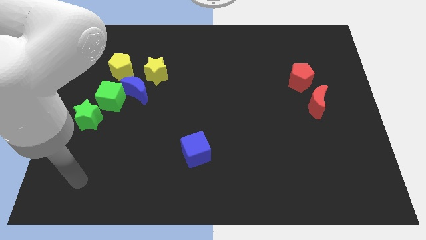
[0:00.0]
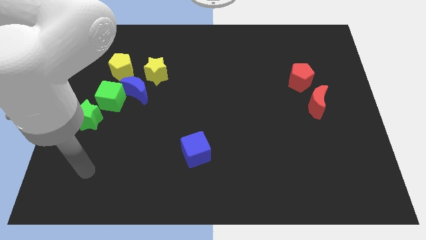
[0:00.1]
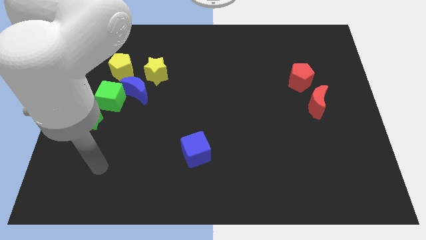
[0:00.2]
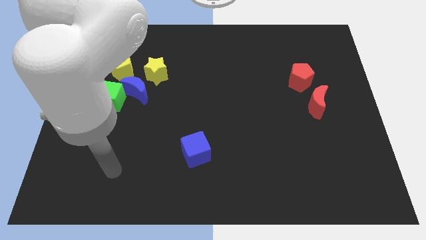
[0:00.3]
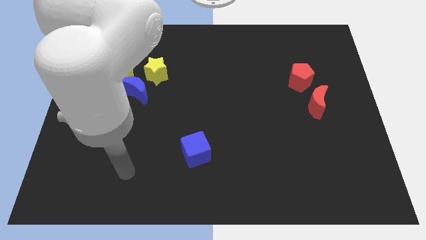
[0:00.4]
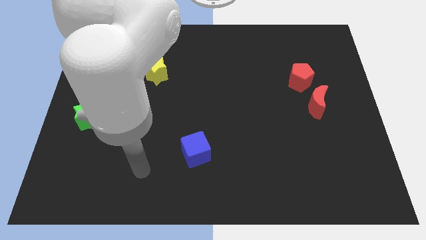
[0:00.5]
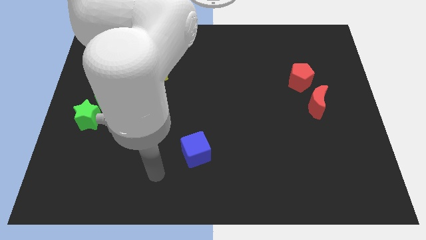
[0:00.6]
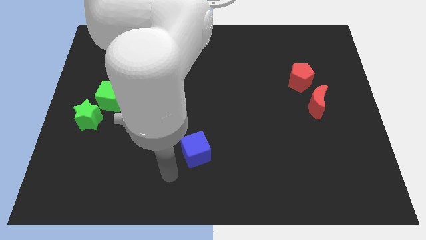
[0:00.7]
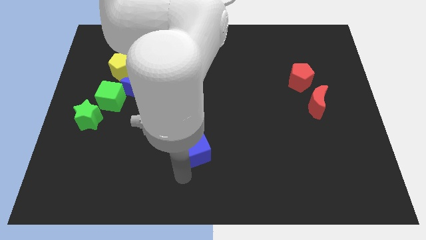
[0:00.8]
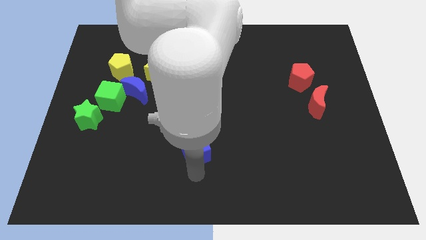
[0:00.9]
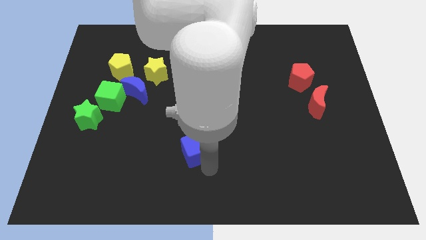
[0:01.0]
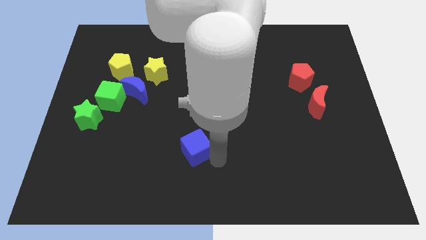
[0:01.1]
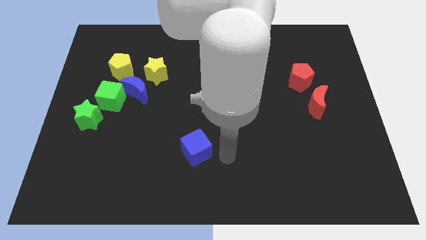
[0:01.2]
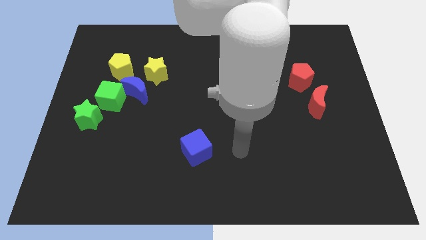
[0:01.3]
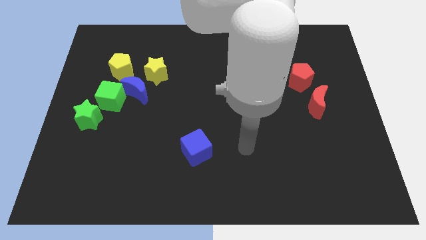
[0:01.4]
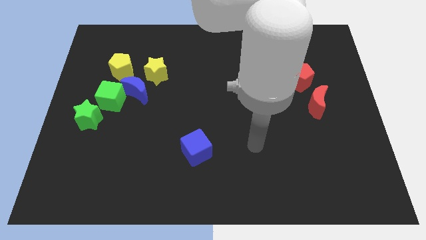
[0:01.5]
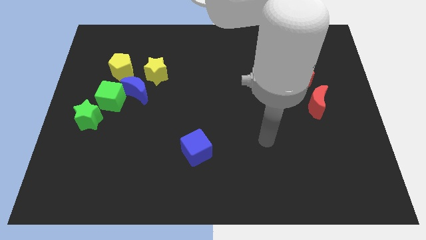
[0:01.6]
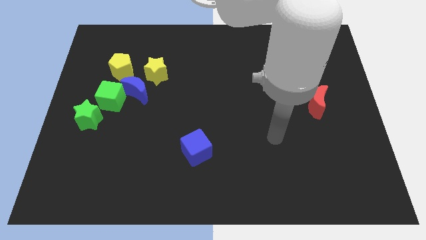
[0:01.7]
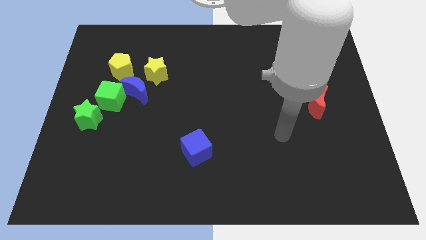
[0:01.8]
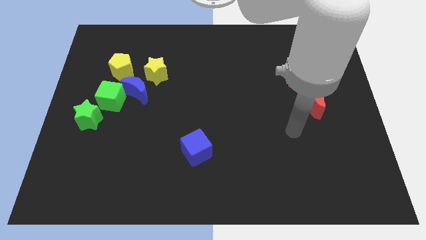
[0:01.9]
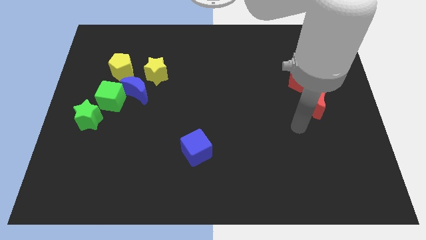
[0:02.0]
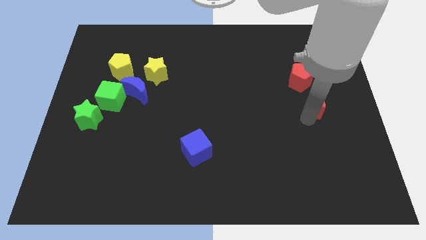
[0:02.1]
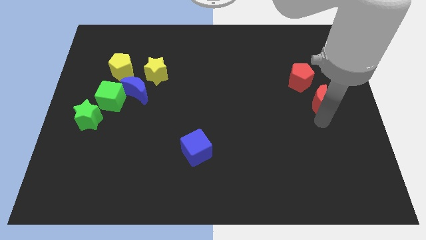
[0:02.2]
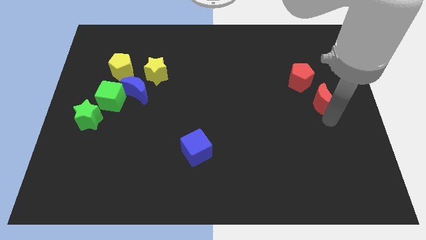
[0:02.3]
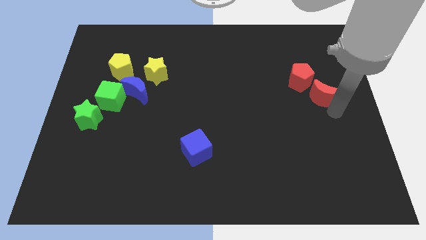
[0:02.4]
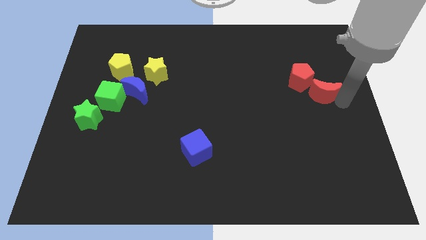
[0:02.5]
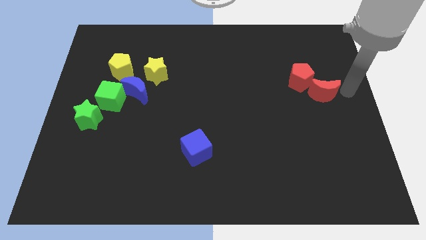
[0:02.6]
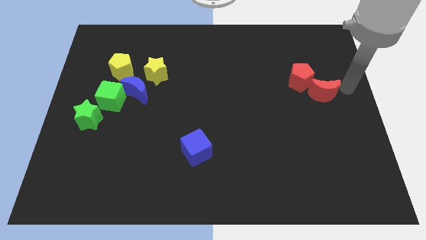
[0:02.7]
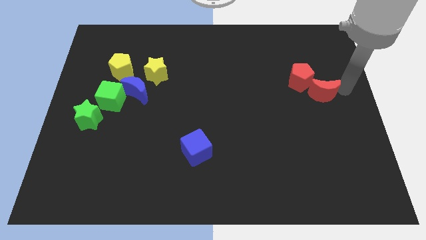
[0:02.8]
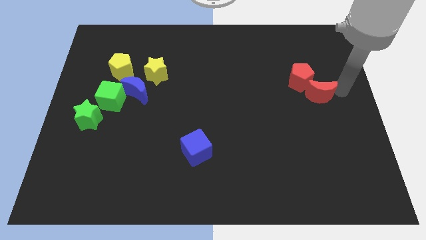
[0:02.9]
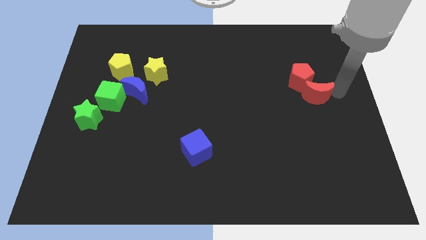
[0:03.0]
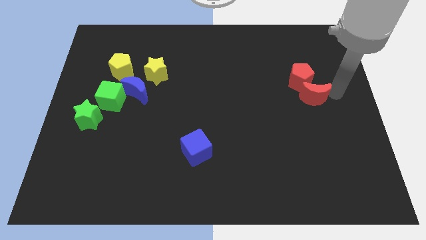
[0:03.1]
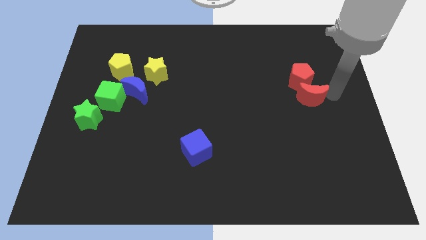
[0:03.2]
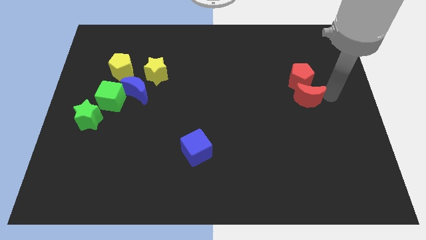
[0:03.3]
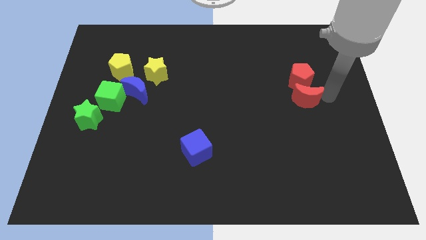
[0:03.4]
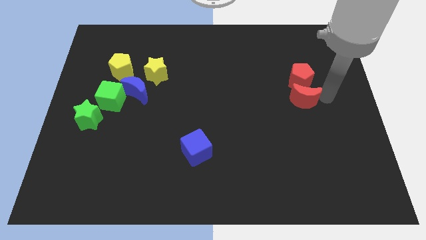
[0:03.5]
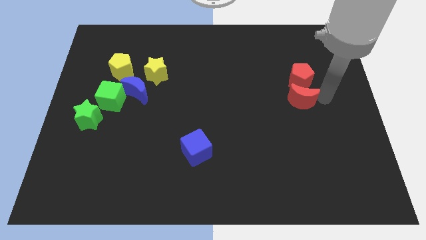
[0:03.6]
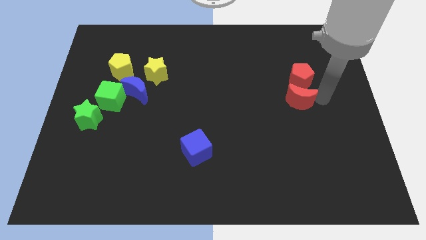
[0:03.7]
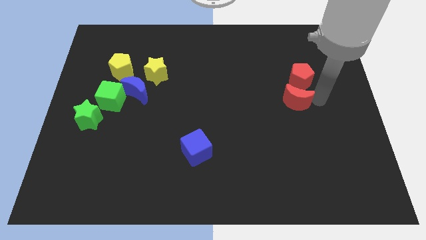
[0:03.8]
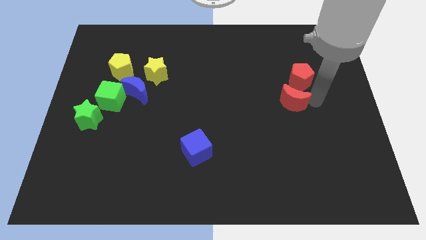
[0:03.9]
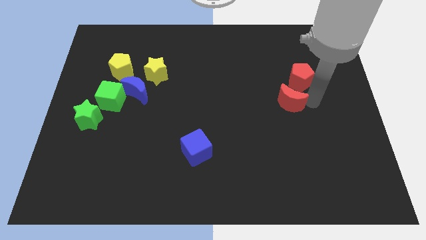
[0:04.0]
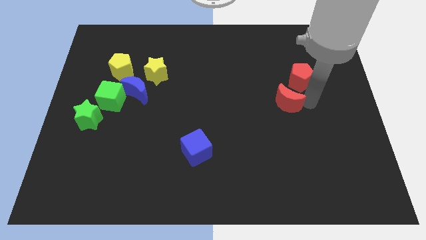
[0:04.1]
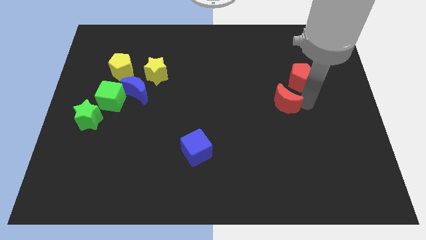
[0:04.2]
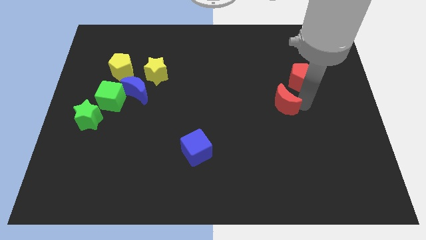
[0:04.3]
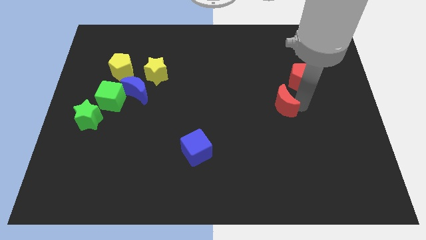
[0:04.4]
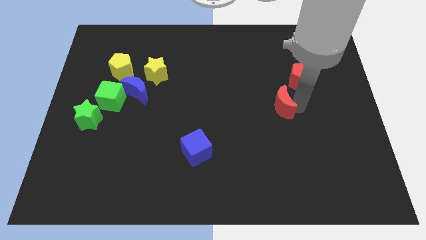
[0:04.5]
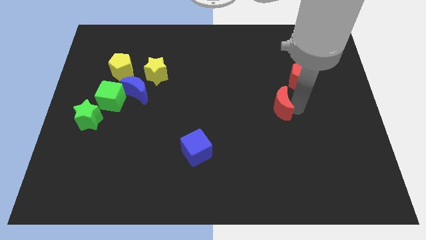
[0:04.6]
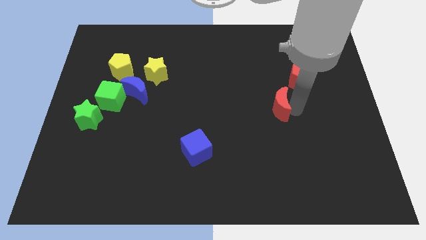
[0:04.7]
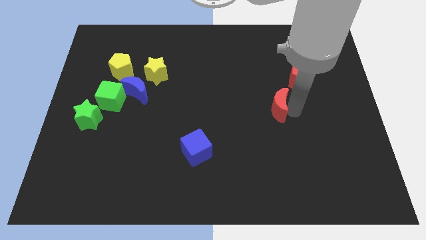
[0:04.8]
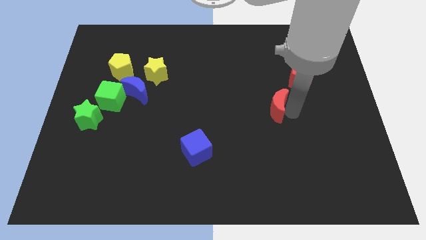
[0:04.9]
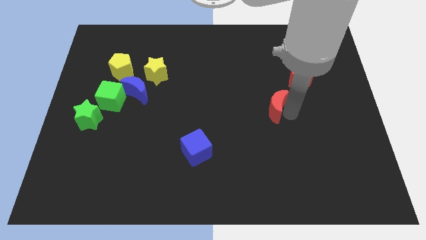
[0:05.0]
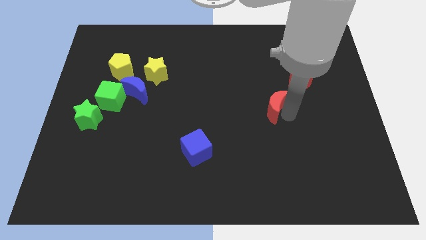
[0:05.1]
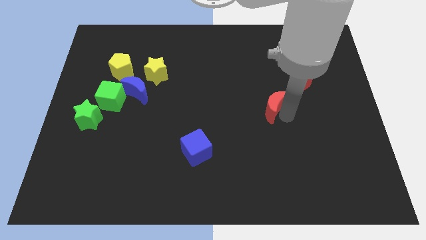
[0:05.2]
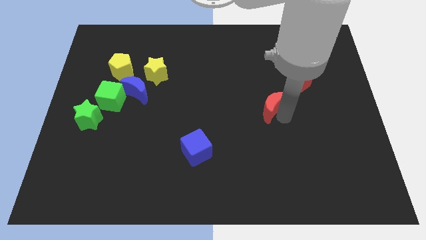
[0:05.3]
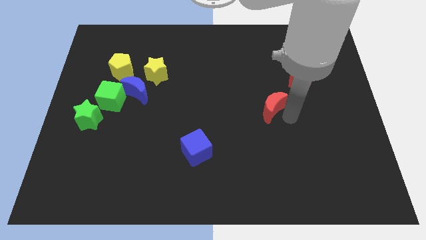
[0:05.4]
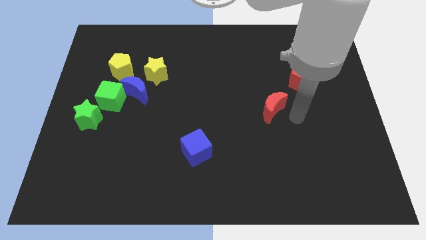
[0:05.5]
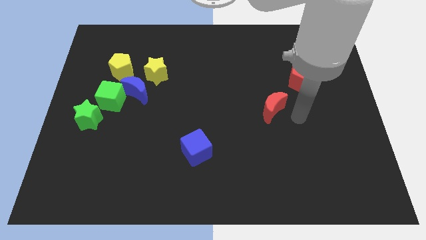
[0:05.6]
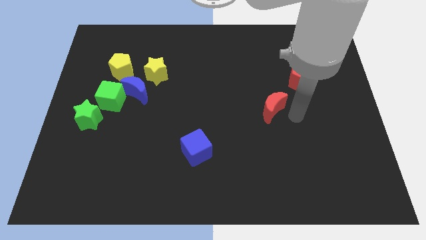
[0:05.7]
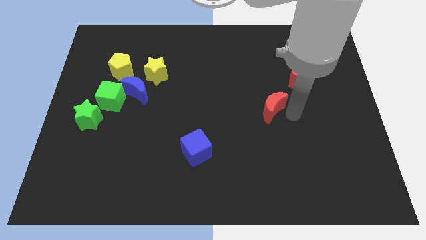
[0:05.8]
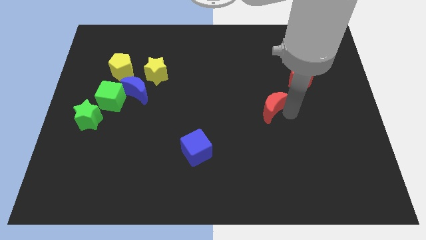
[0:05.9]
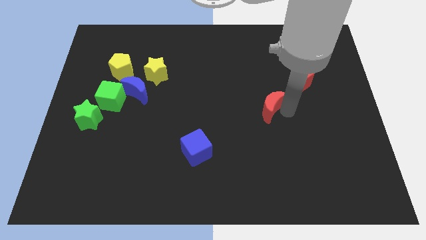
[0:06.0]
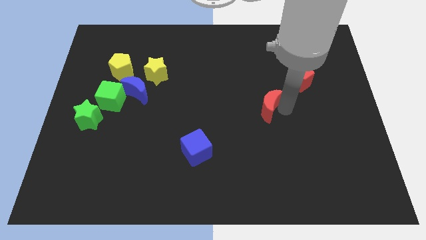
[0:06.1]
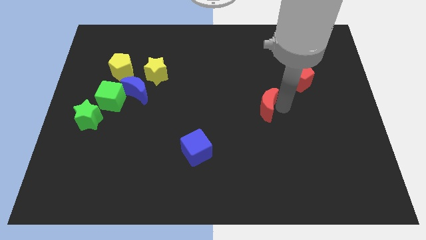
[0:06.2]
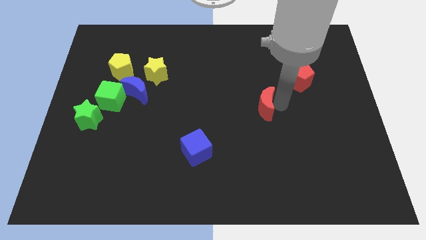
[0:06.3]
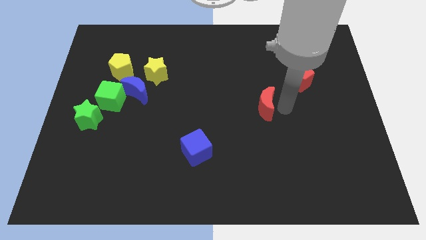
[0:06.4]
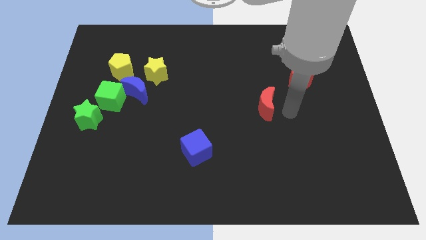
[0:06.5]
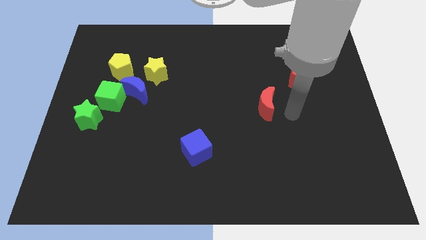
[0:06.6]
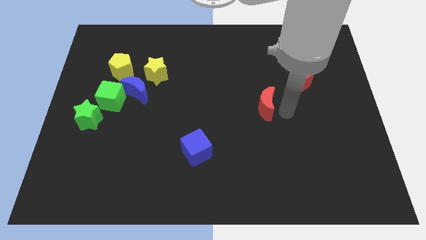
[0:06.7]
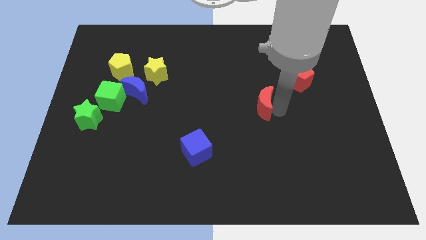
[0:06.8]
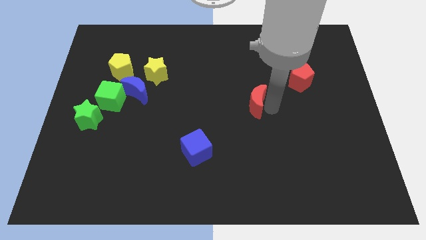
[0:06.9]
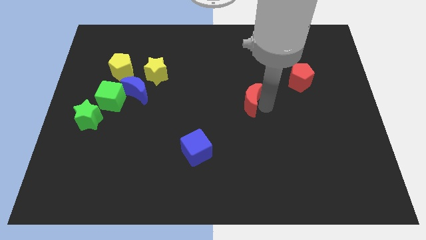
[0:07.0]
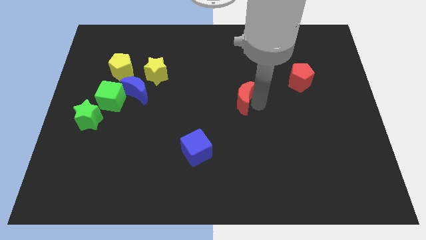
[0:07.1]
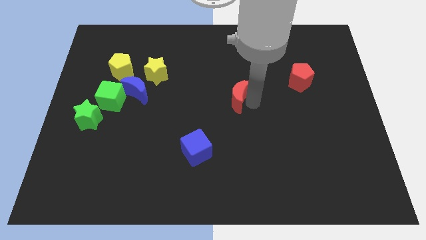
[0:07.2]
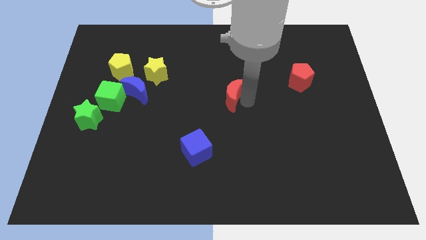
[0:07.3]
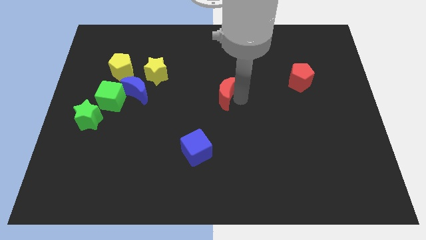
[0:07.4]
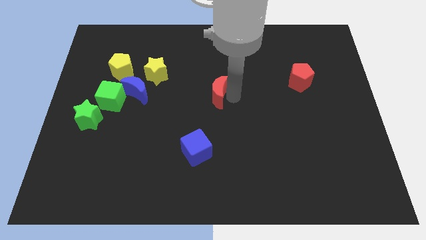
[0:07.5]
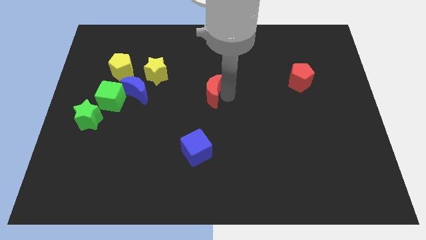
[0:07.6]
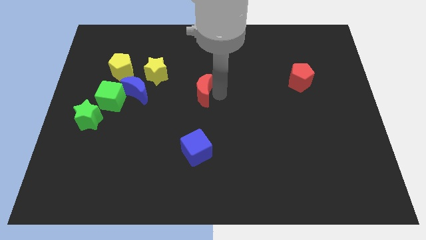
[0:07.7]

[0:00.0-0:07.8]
move the red moon just right of the blue moon
